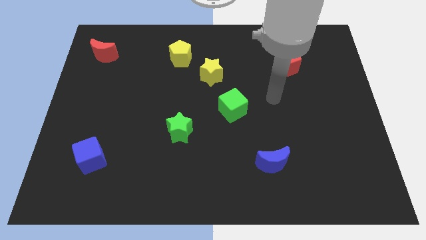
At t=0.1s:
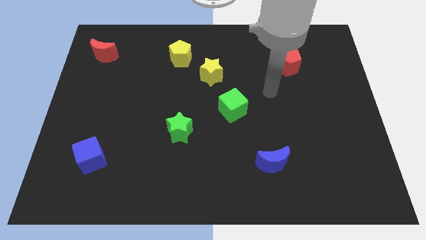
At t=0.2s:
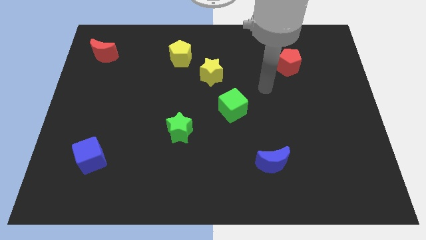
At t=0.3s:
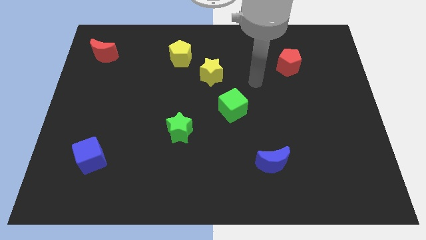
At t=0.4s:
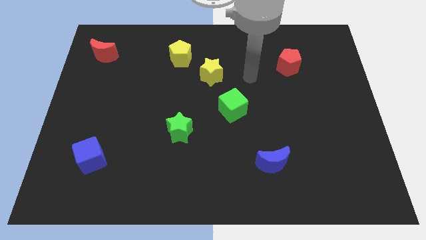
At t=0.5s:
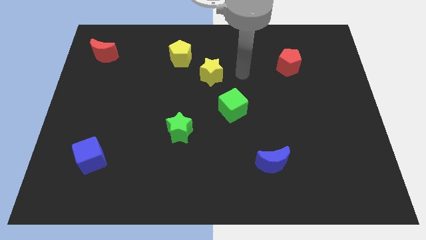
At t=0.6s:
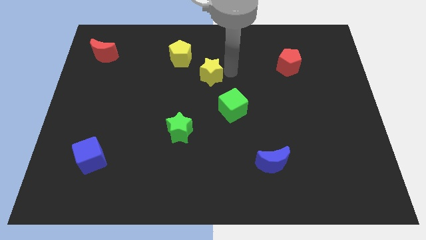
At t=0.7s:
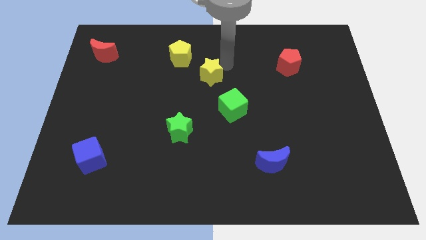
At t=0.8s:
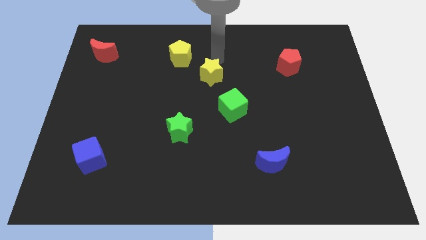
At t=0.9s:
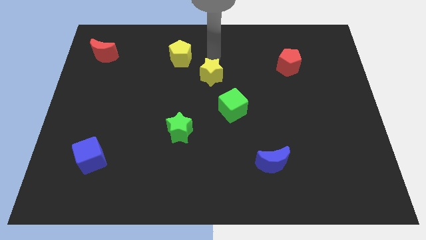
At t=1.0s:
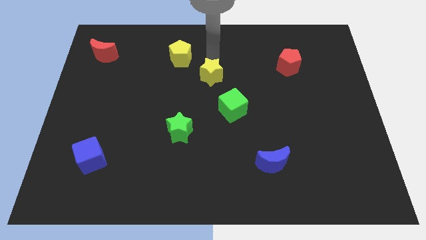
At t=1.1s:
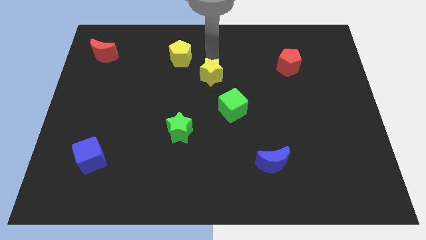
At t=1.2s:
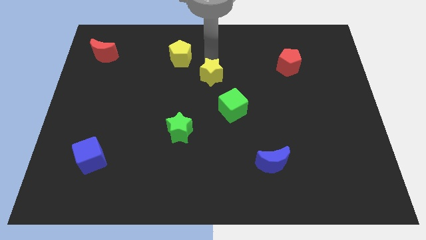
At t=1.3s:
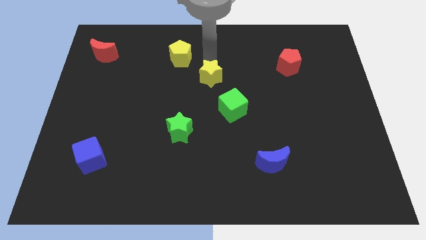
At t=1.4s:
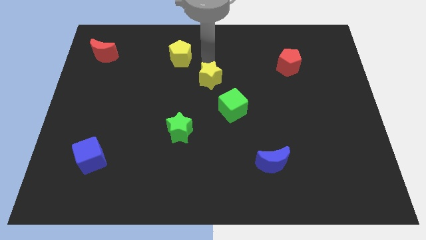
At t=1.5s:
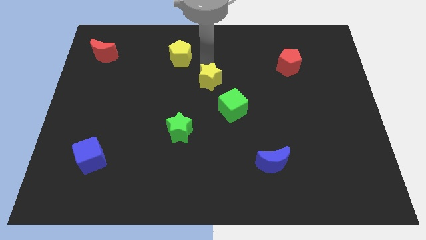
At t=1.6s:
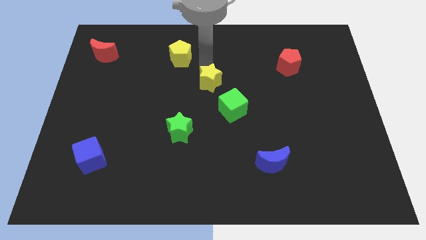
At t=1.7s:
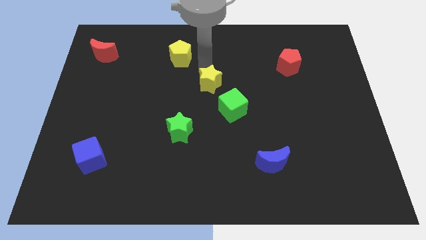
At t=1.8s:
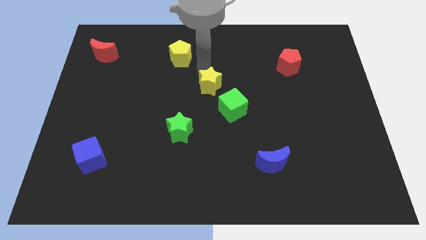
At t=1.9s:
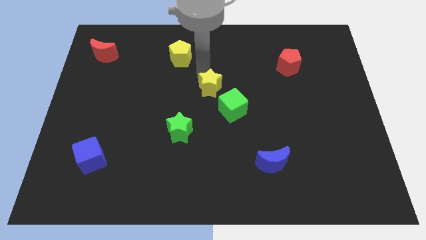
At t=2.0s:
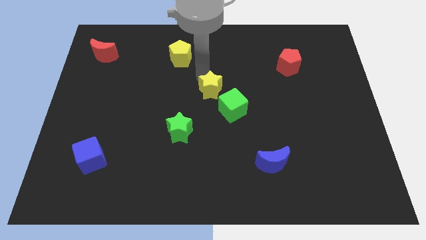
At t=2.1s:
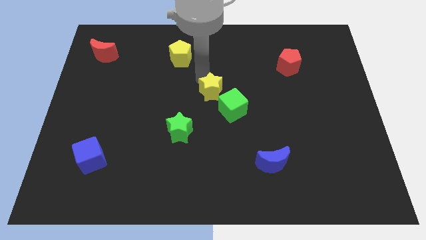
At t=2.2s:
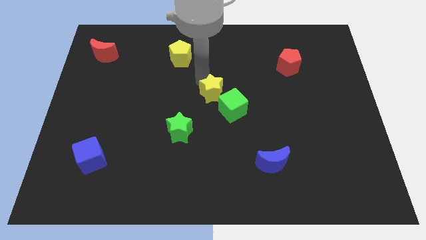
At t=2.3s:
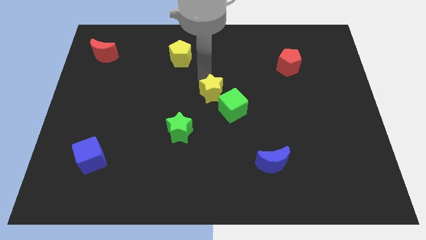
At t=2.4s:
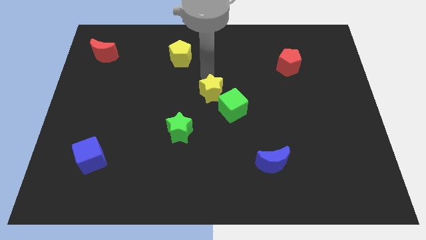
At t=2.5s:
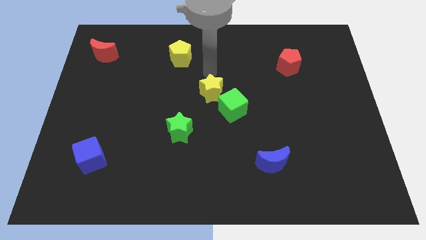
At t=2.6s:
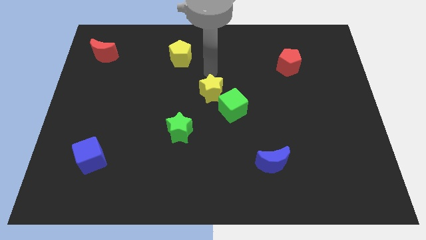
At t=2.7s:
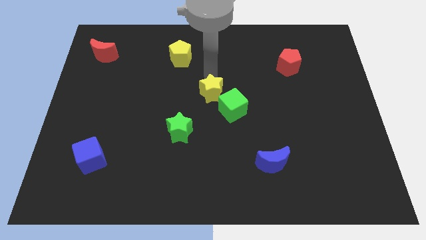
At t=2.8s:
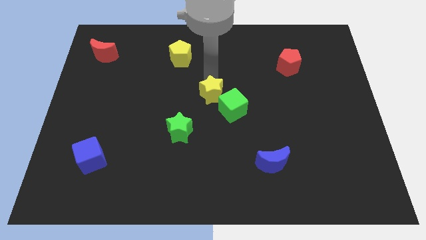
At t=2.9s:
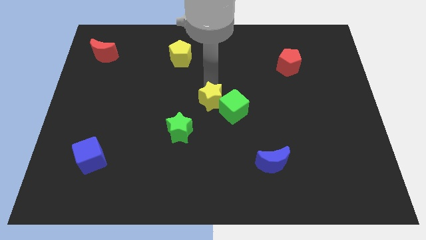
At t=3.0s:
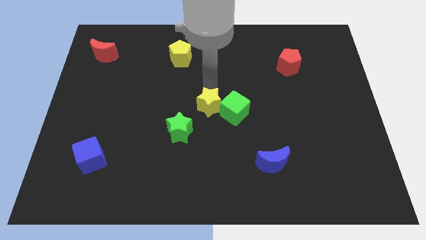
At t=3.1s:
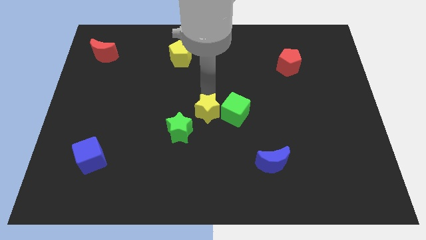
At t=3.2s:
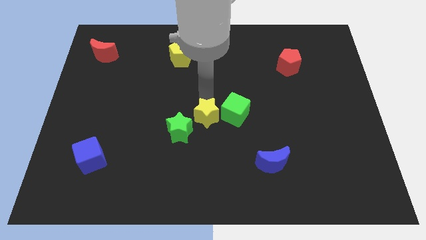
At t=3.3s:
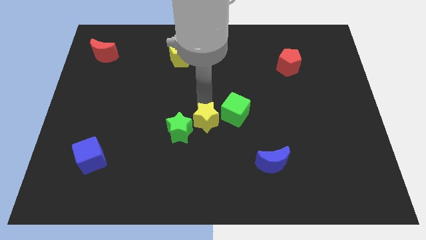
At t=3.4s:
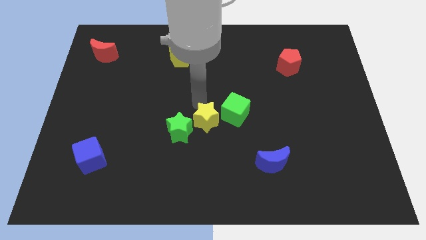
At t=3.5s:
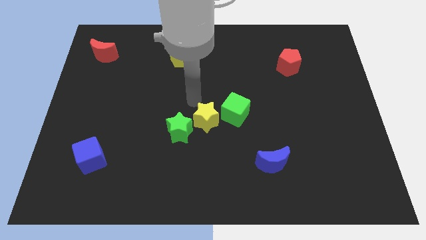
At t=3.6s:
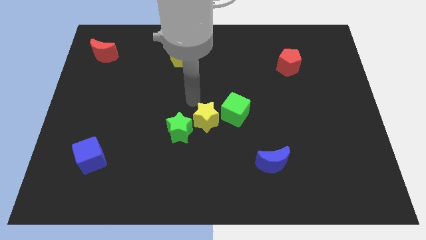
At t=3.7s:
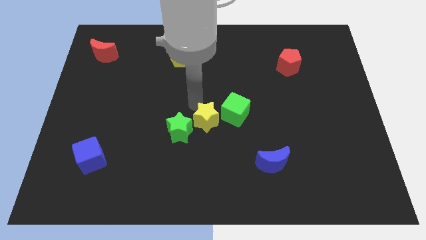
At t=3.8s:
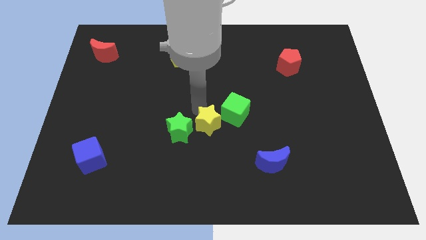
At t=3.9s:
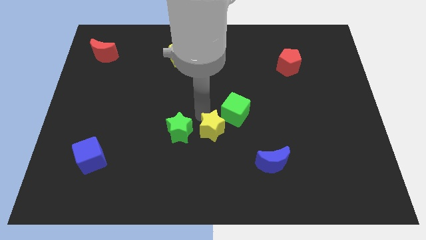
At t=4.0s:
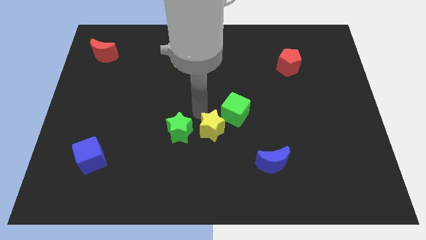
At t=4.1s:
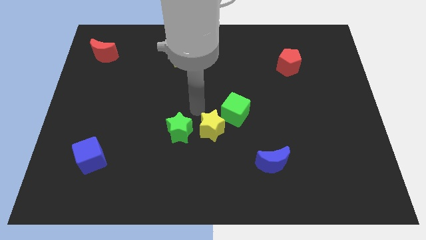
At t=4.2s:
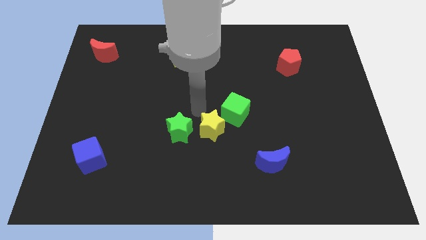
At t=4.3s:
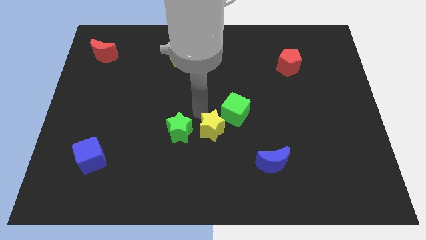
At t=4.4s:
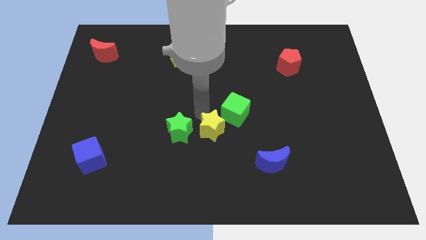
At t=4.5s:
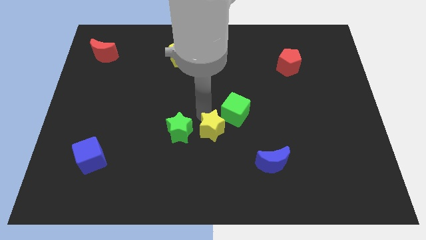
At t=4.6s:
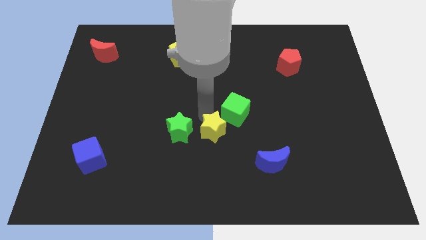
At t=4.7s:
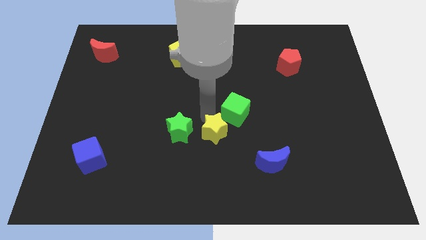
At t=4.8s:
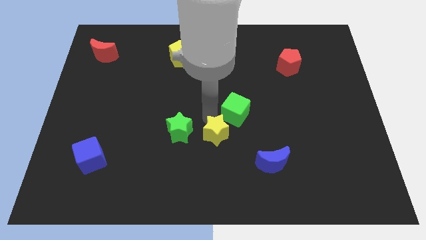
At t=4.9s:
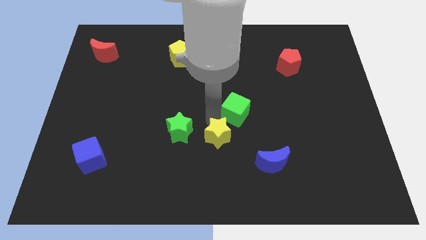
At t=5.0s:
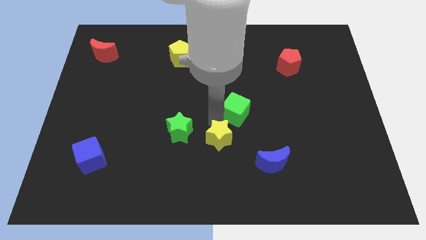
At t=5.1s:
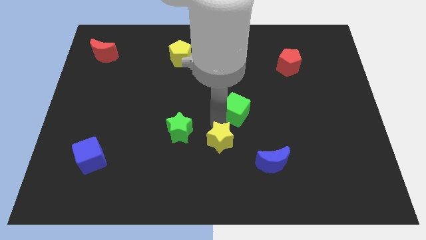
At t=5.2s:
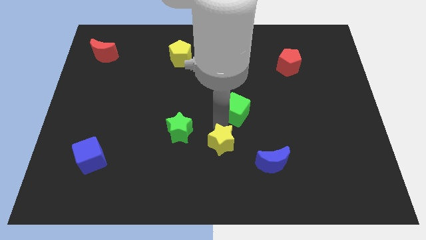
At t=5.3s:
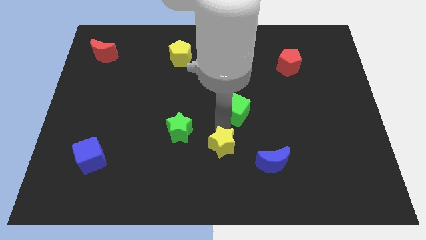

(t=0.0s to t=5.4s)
slide the yellow star just left of the blue moon

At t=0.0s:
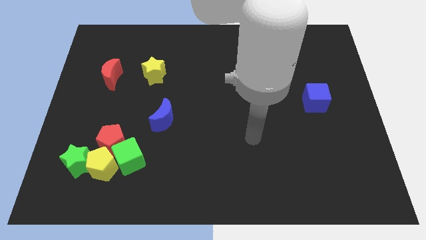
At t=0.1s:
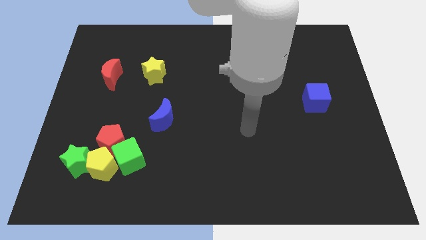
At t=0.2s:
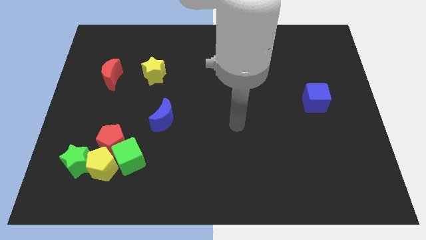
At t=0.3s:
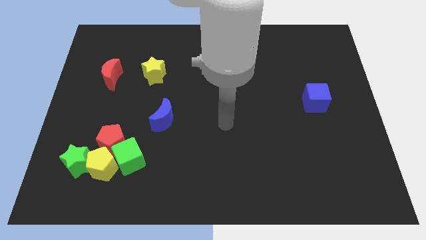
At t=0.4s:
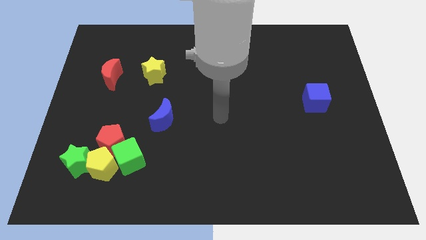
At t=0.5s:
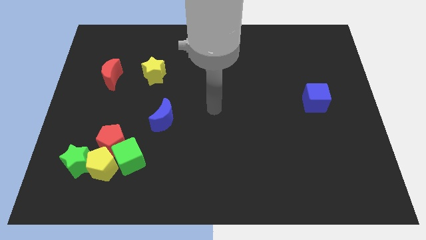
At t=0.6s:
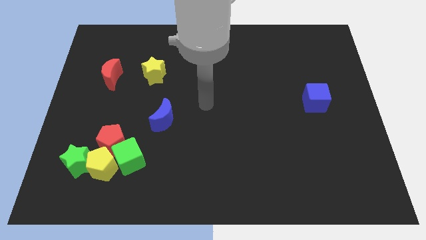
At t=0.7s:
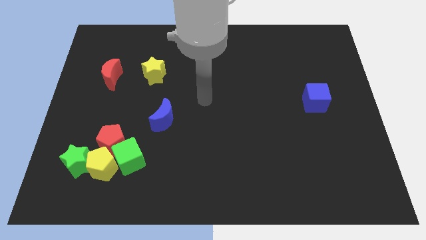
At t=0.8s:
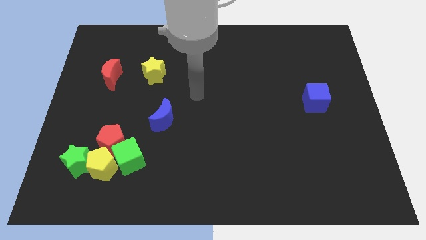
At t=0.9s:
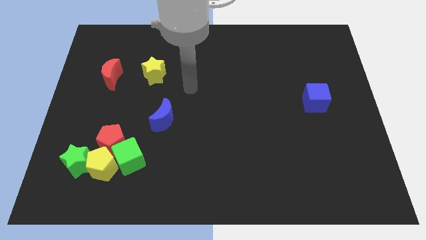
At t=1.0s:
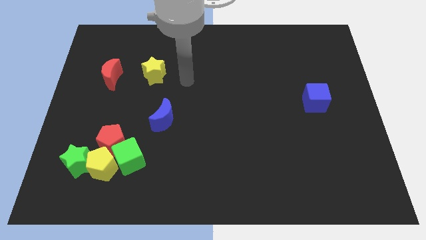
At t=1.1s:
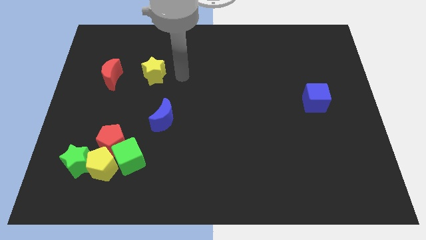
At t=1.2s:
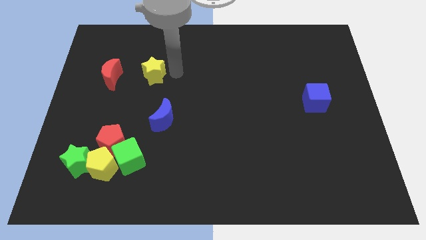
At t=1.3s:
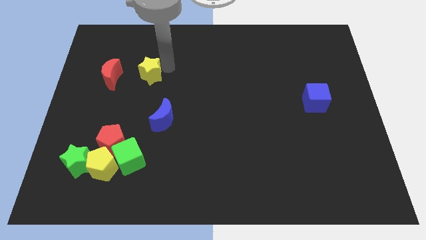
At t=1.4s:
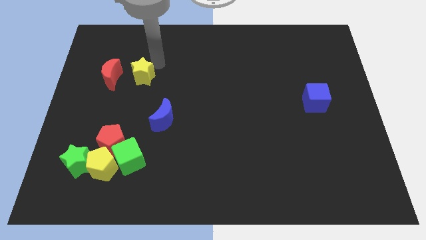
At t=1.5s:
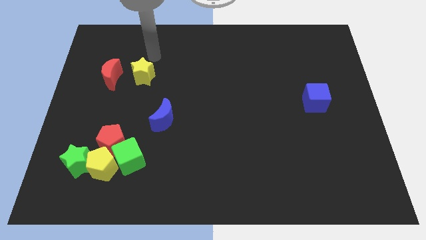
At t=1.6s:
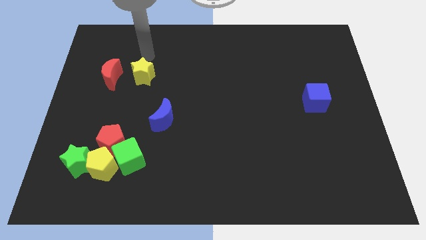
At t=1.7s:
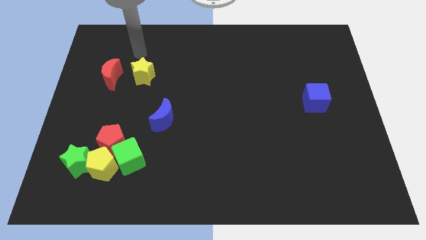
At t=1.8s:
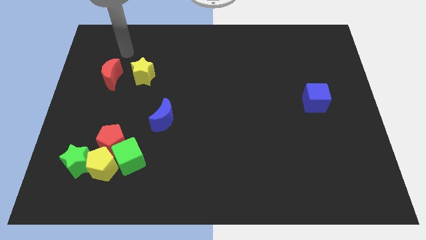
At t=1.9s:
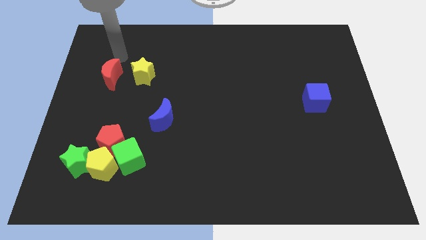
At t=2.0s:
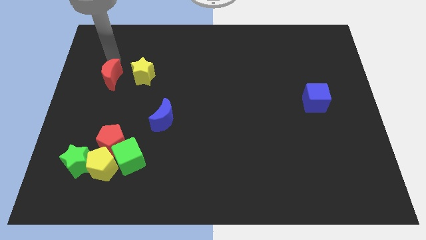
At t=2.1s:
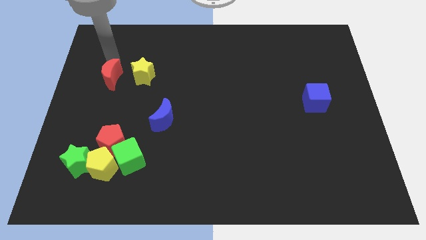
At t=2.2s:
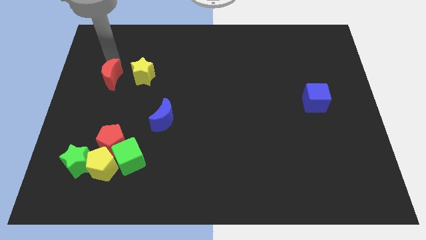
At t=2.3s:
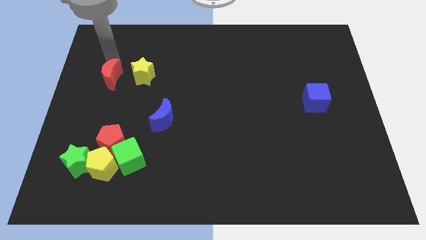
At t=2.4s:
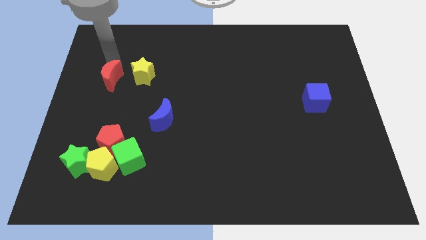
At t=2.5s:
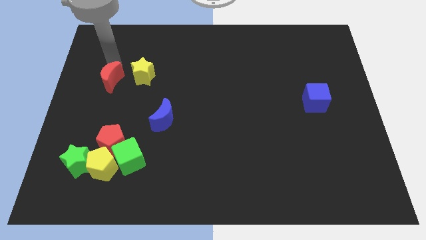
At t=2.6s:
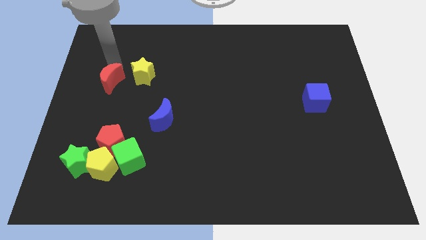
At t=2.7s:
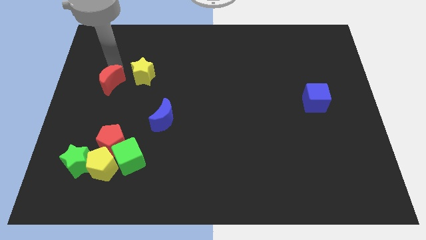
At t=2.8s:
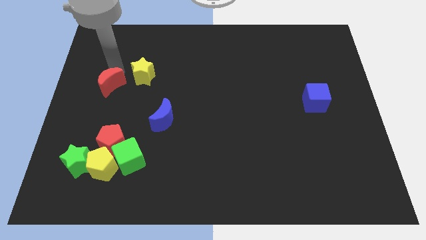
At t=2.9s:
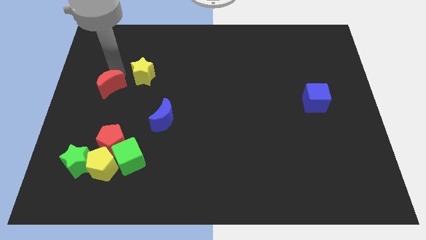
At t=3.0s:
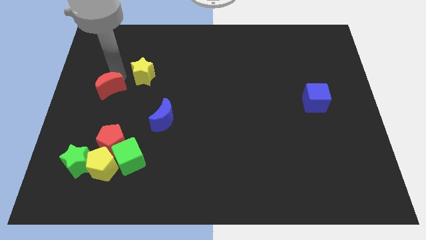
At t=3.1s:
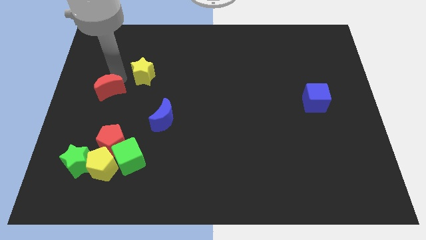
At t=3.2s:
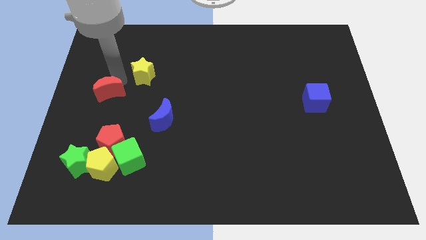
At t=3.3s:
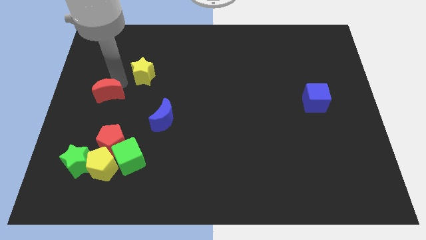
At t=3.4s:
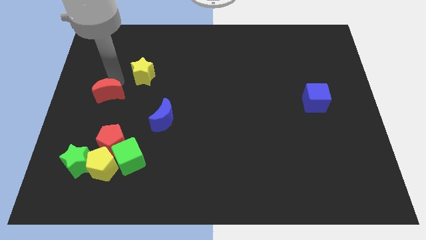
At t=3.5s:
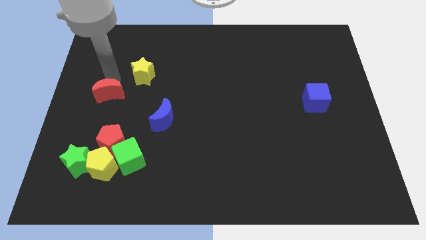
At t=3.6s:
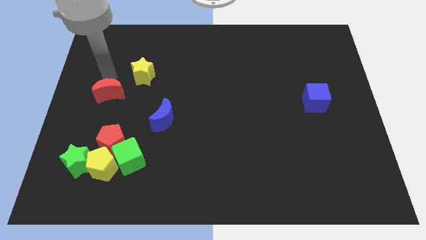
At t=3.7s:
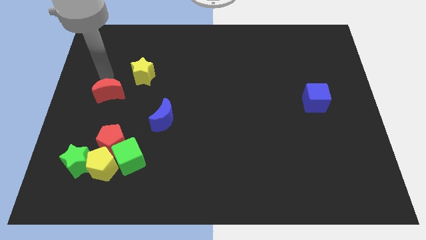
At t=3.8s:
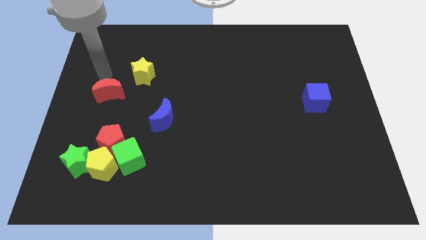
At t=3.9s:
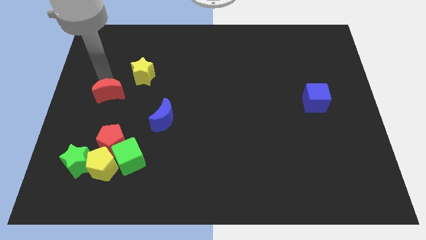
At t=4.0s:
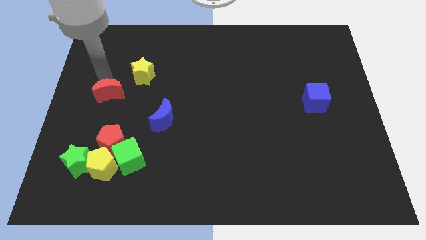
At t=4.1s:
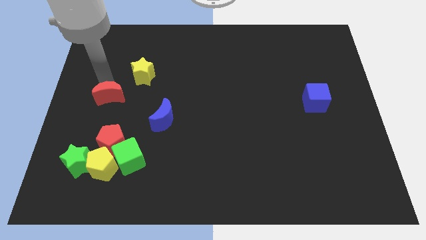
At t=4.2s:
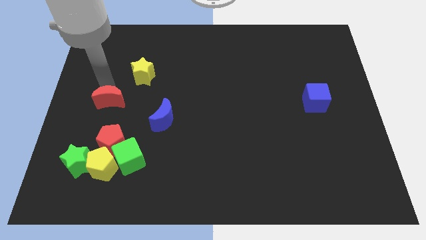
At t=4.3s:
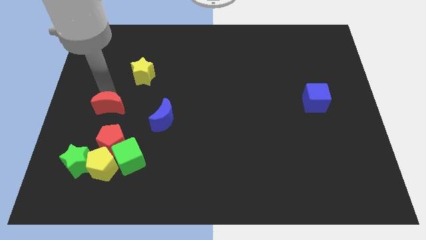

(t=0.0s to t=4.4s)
slide the red moon to the left side of the blue moon
